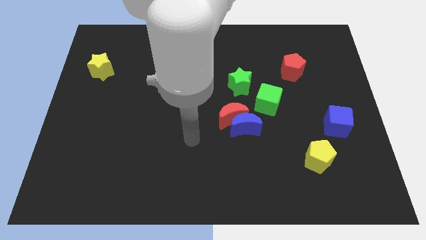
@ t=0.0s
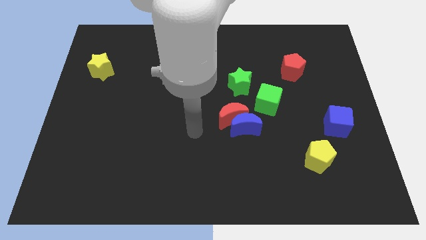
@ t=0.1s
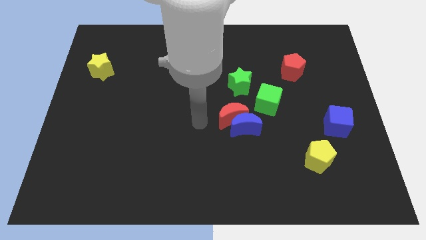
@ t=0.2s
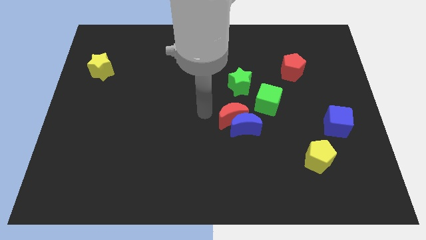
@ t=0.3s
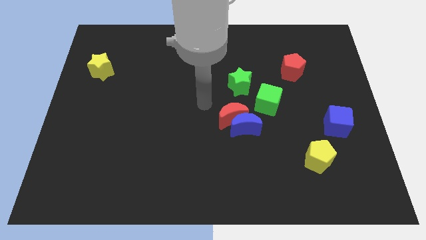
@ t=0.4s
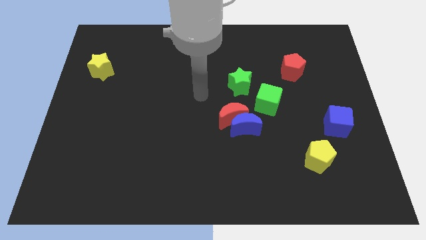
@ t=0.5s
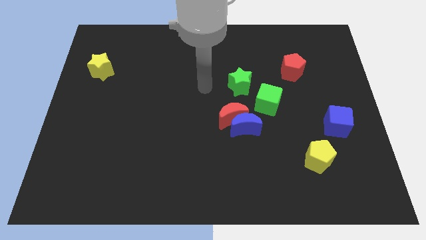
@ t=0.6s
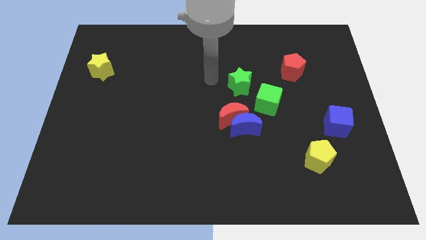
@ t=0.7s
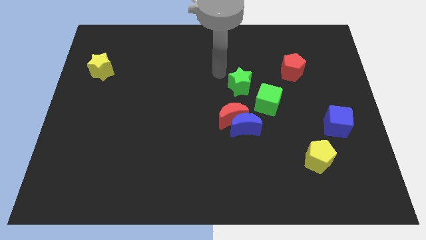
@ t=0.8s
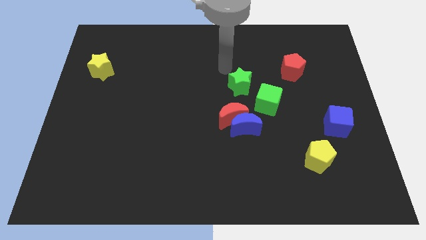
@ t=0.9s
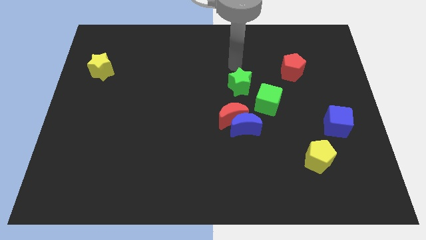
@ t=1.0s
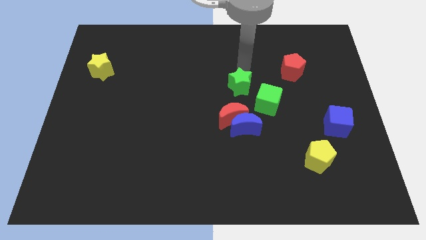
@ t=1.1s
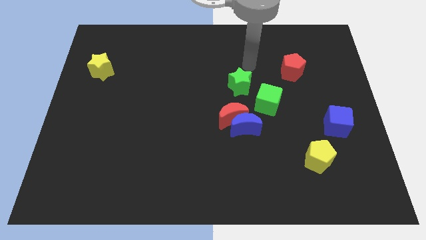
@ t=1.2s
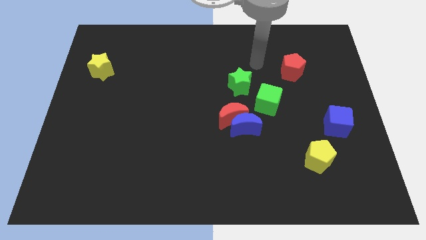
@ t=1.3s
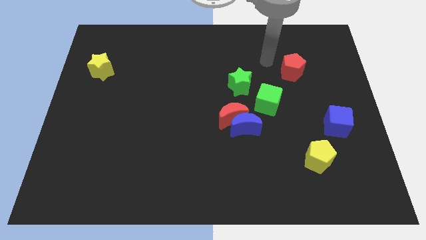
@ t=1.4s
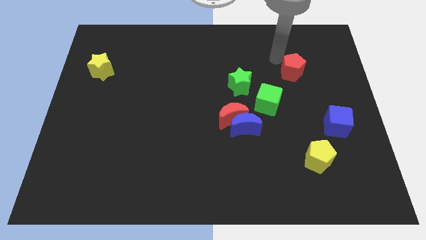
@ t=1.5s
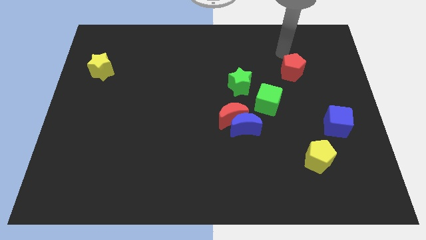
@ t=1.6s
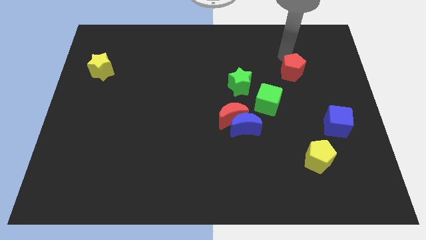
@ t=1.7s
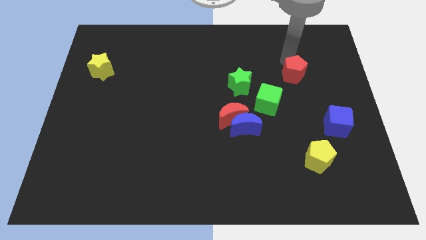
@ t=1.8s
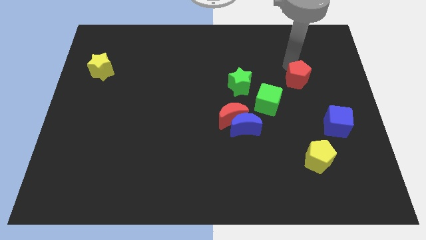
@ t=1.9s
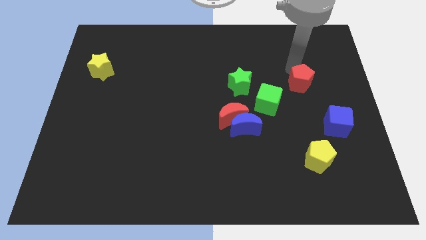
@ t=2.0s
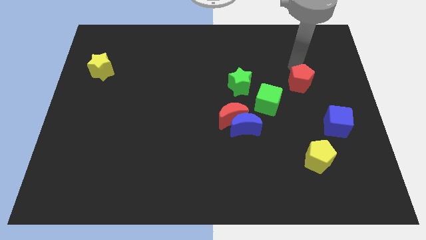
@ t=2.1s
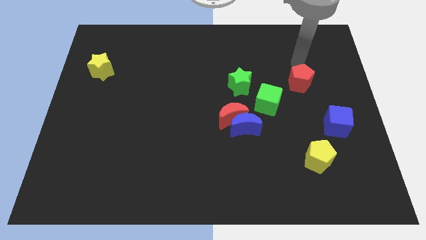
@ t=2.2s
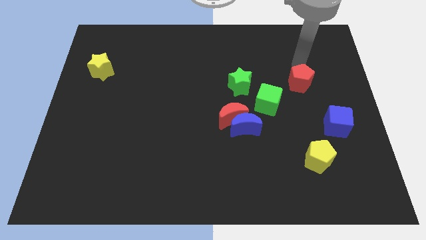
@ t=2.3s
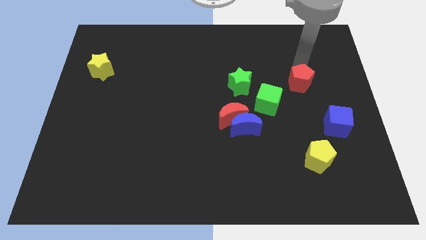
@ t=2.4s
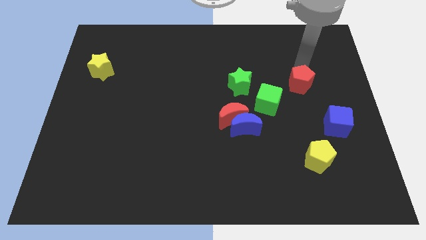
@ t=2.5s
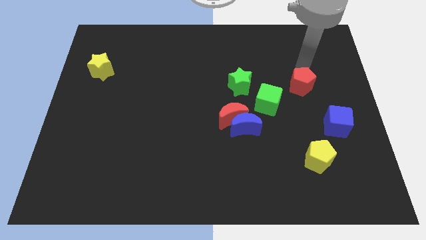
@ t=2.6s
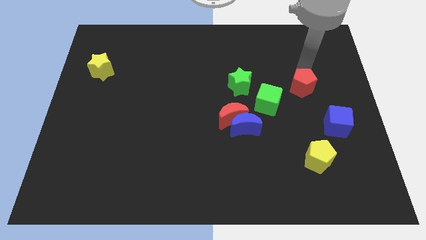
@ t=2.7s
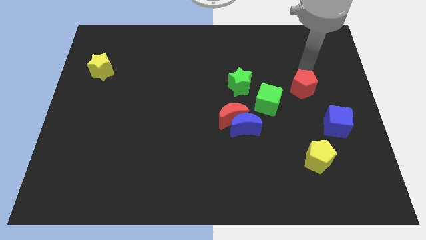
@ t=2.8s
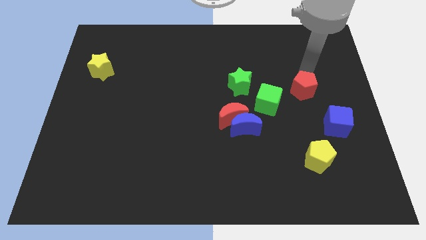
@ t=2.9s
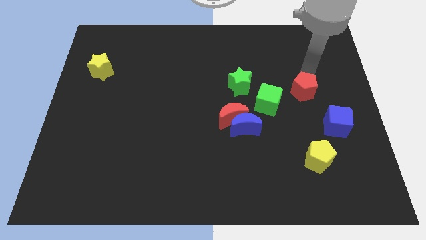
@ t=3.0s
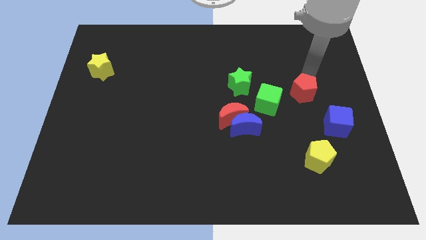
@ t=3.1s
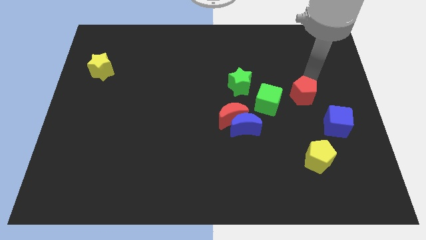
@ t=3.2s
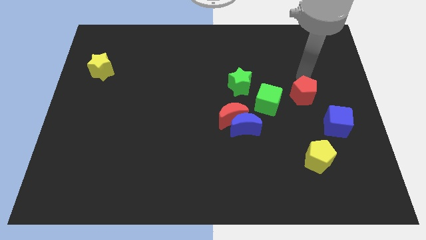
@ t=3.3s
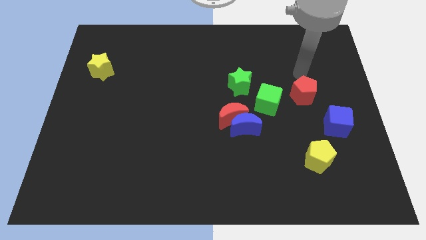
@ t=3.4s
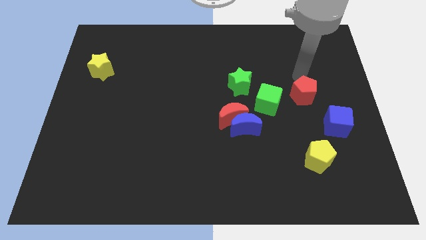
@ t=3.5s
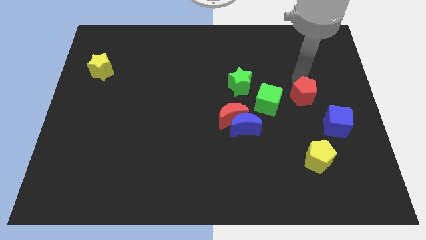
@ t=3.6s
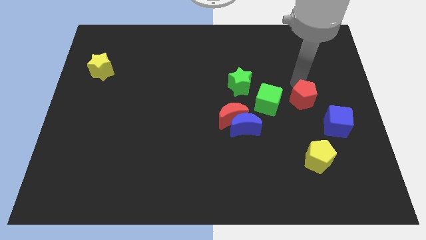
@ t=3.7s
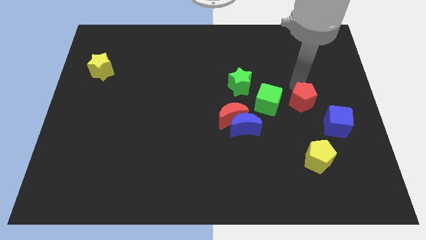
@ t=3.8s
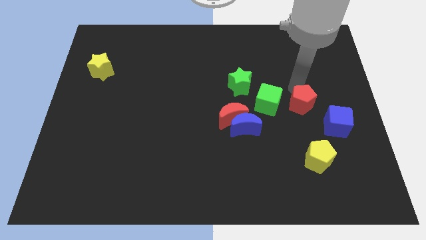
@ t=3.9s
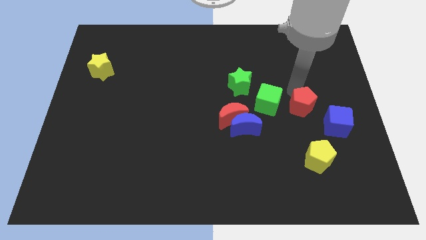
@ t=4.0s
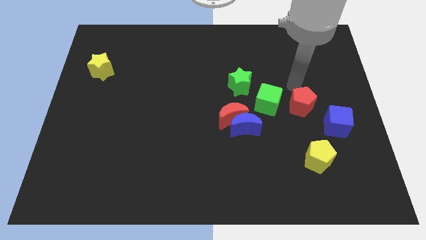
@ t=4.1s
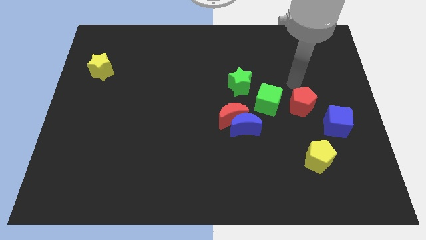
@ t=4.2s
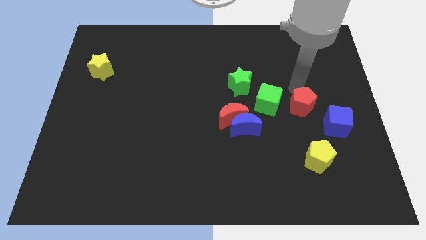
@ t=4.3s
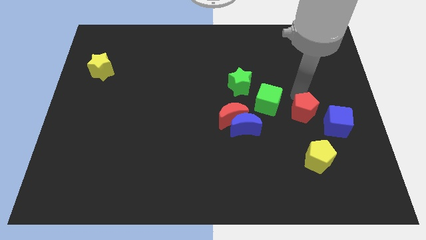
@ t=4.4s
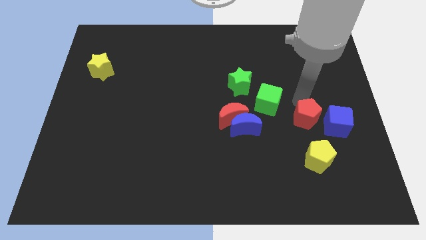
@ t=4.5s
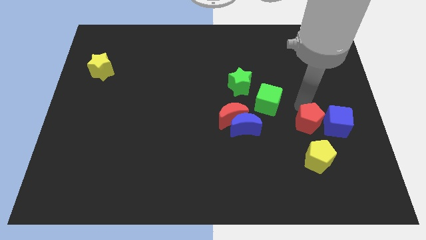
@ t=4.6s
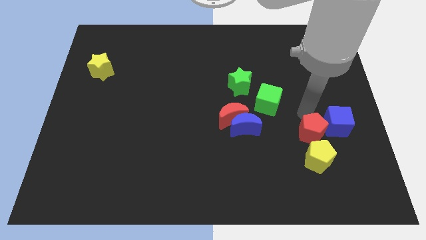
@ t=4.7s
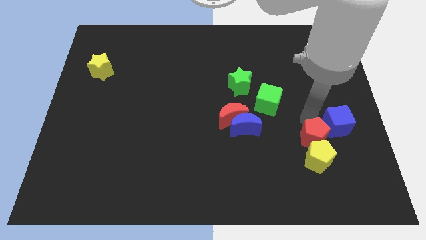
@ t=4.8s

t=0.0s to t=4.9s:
move the red pentagon next to the yellow pentagon

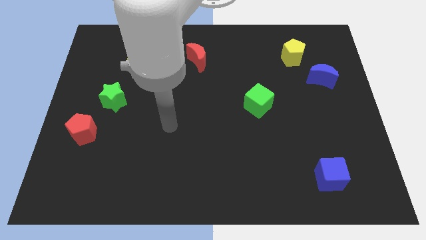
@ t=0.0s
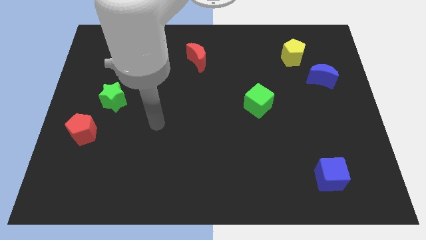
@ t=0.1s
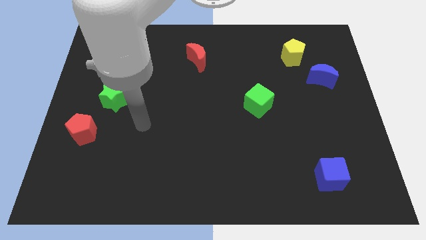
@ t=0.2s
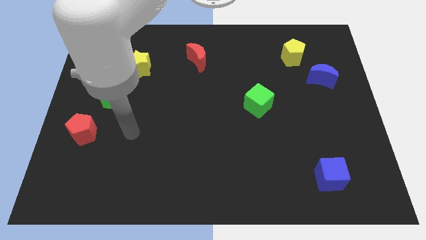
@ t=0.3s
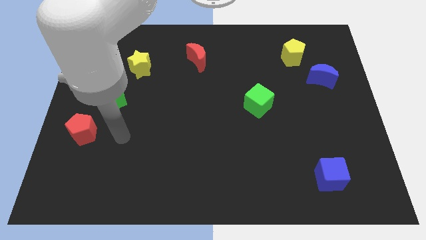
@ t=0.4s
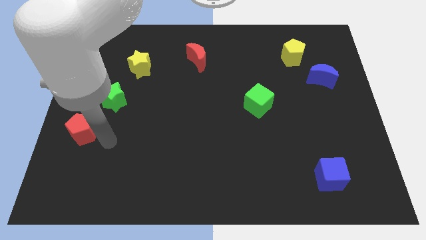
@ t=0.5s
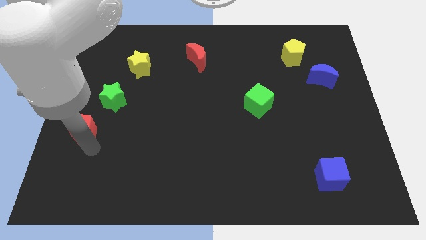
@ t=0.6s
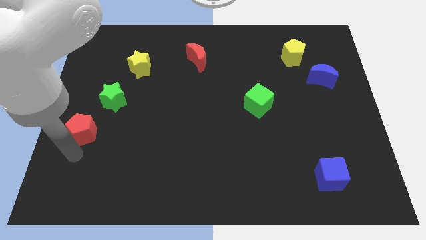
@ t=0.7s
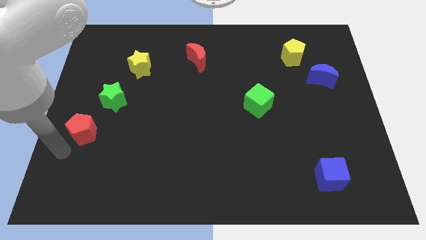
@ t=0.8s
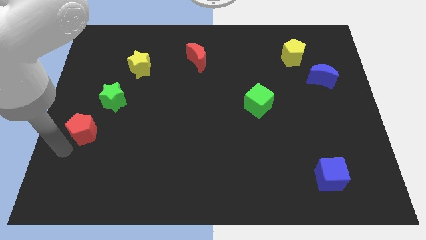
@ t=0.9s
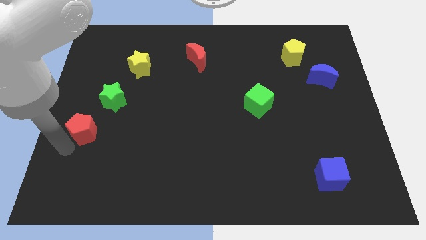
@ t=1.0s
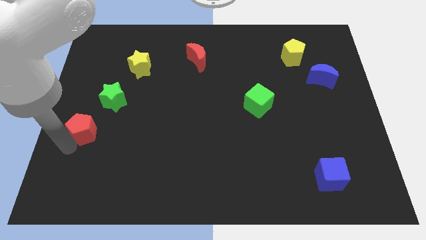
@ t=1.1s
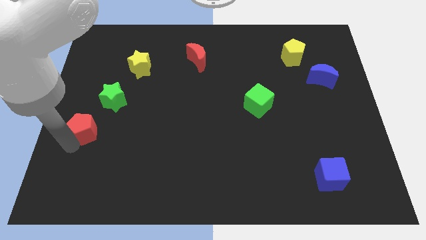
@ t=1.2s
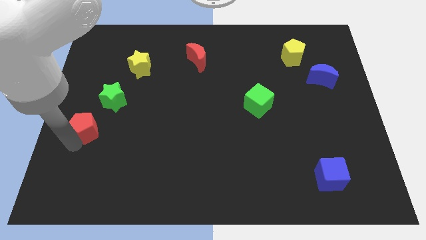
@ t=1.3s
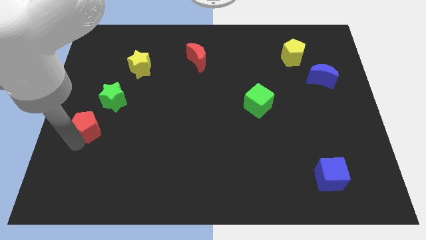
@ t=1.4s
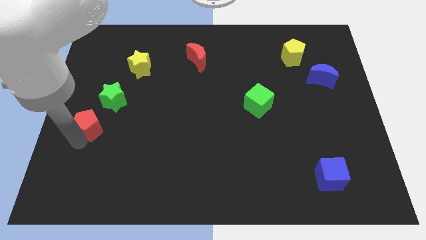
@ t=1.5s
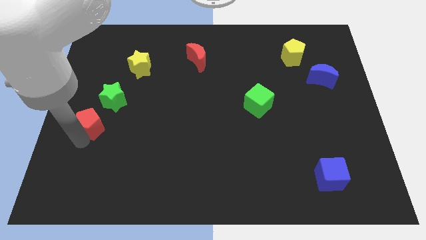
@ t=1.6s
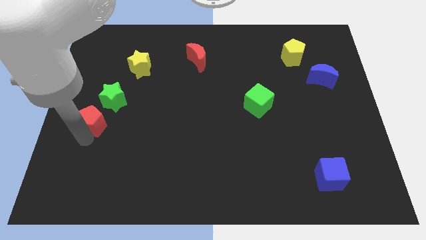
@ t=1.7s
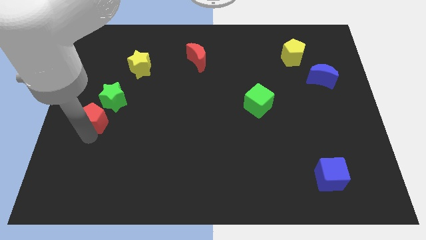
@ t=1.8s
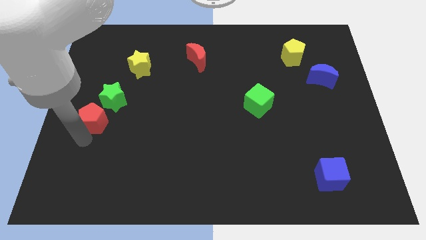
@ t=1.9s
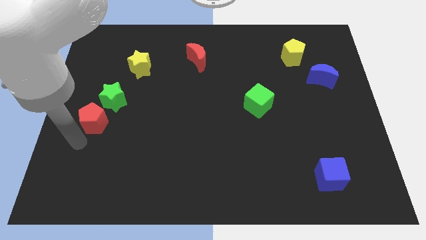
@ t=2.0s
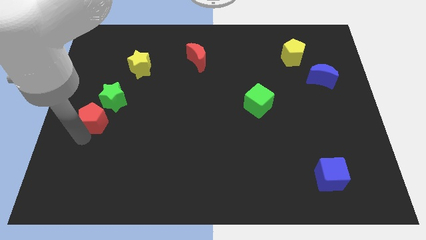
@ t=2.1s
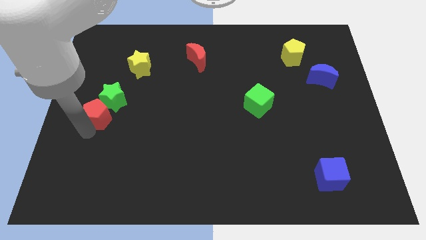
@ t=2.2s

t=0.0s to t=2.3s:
put the red pentagon close to the green star

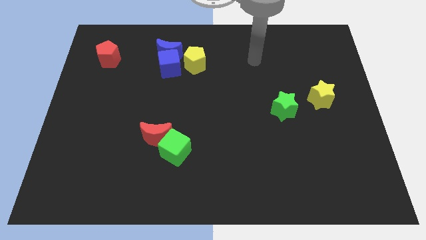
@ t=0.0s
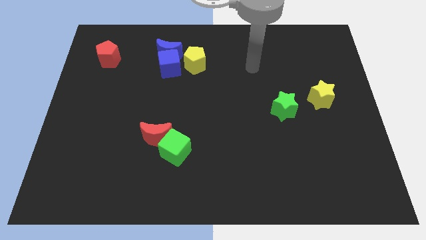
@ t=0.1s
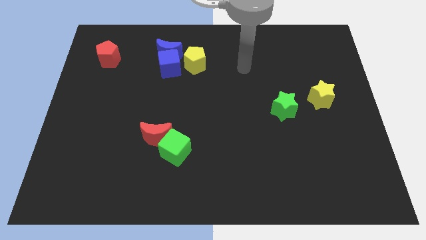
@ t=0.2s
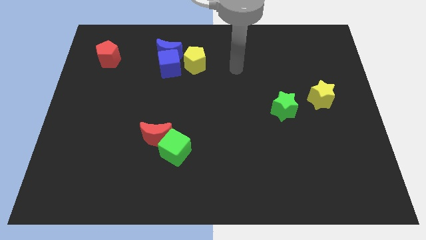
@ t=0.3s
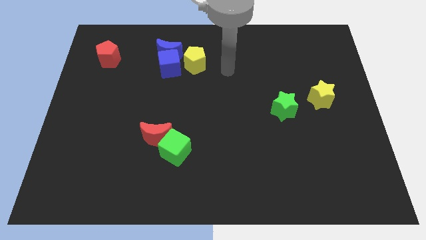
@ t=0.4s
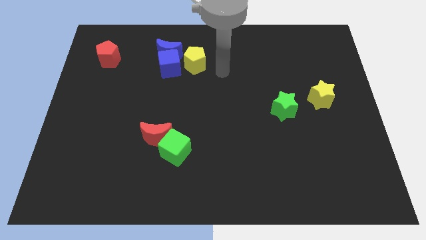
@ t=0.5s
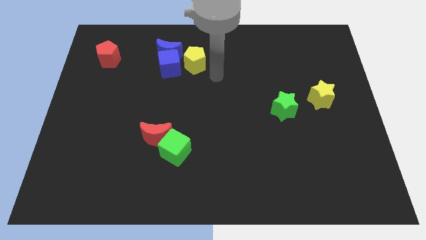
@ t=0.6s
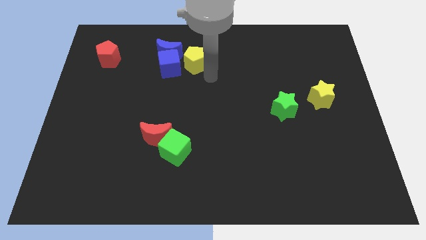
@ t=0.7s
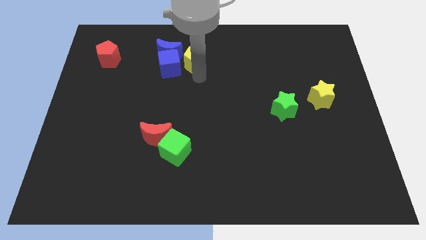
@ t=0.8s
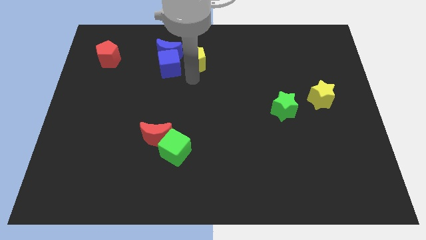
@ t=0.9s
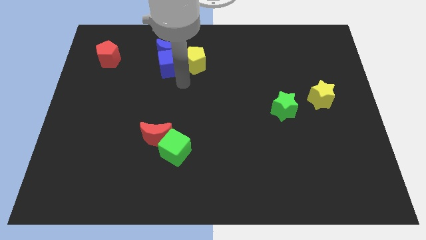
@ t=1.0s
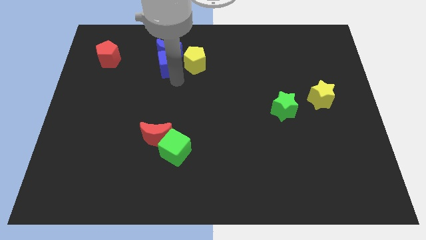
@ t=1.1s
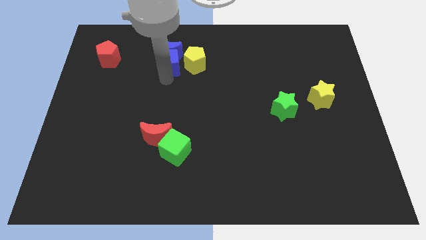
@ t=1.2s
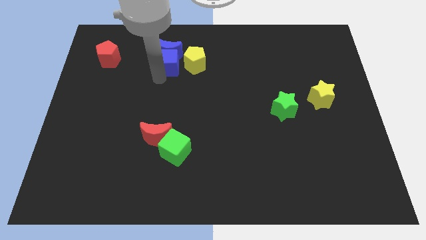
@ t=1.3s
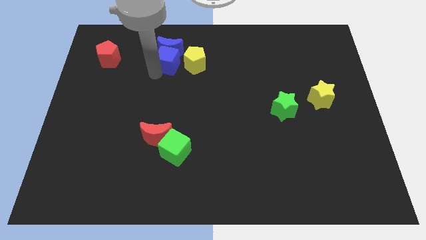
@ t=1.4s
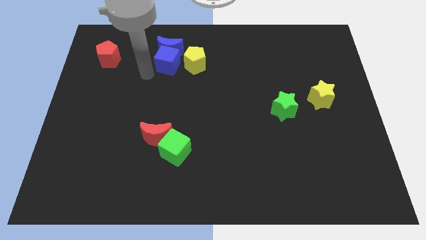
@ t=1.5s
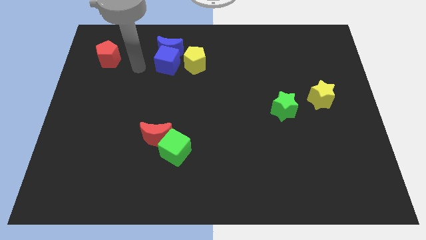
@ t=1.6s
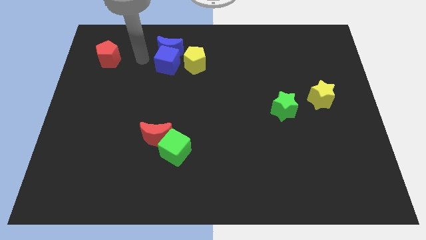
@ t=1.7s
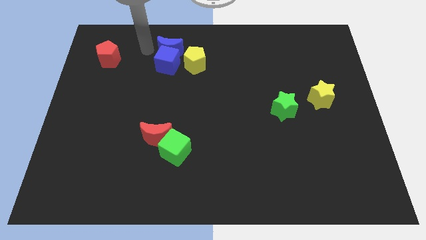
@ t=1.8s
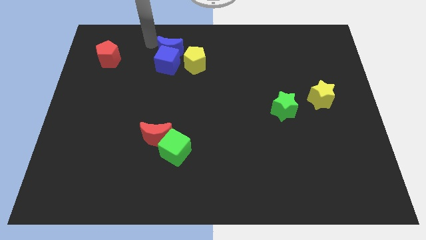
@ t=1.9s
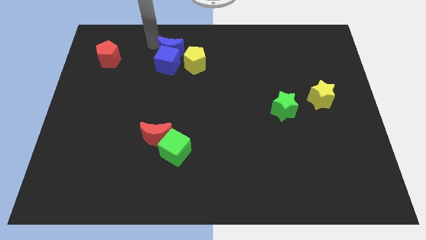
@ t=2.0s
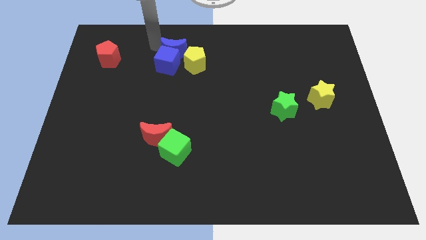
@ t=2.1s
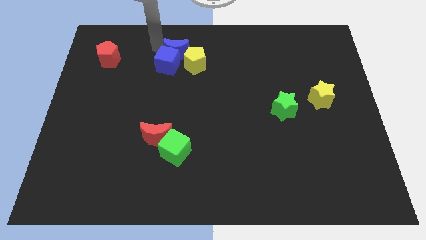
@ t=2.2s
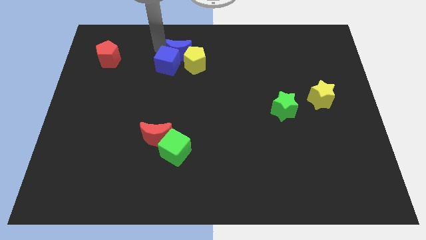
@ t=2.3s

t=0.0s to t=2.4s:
slide the blue moon close to the yellow pentagon
